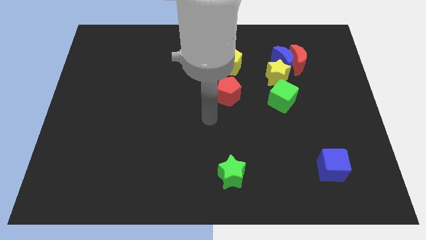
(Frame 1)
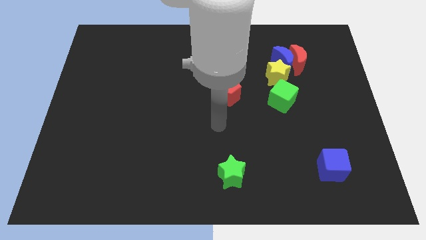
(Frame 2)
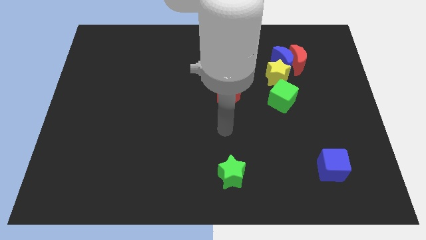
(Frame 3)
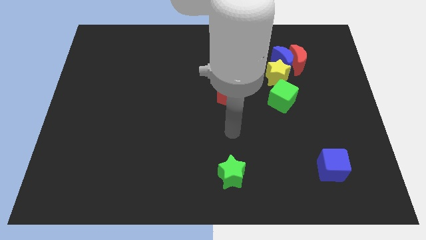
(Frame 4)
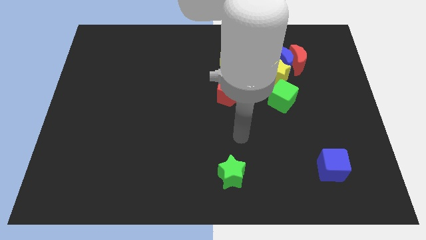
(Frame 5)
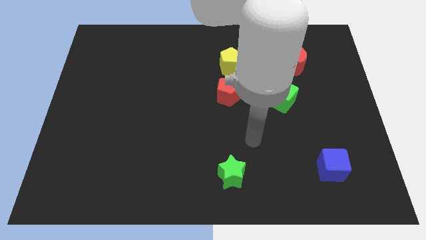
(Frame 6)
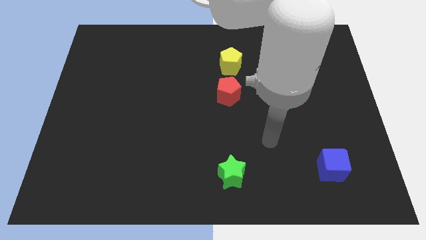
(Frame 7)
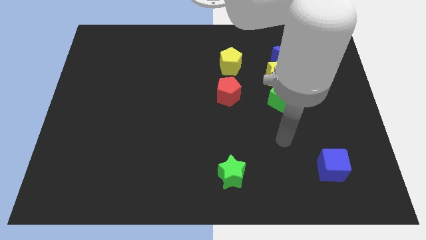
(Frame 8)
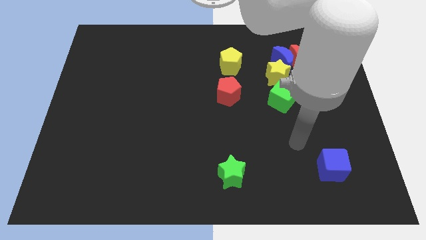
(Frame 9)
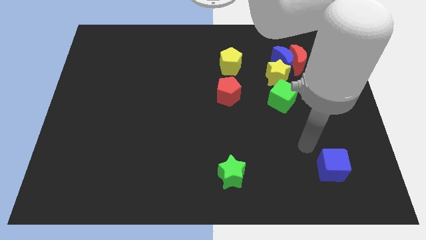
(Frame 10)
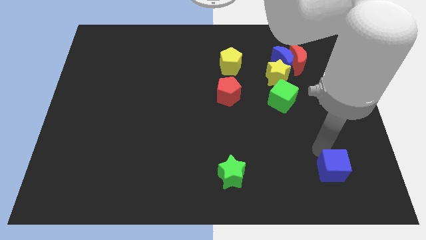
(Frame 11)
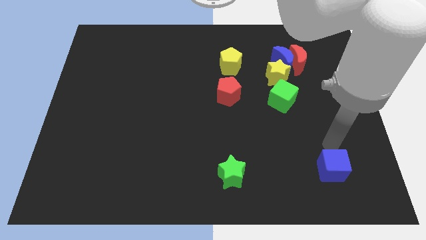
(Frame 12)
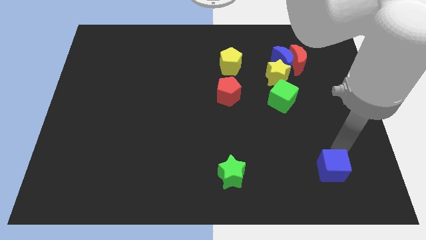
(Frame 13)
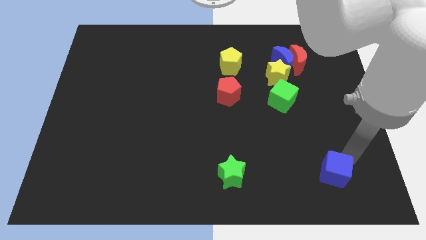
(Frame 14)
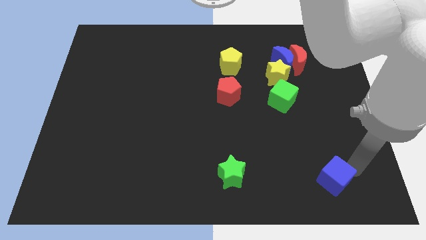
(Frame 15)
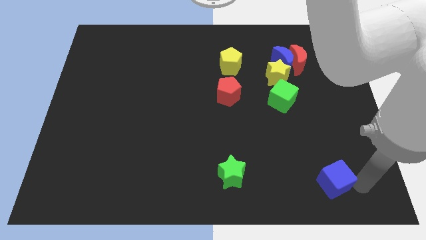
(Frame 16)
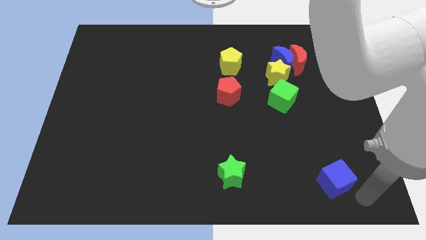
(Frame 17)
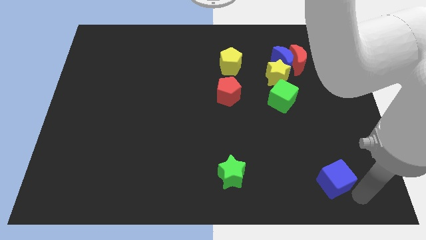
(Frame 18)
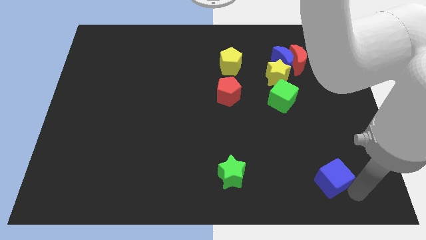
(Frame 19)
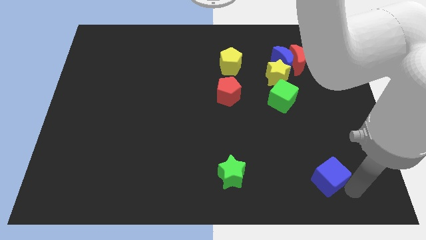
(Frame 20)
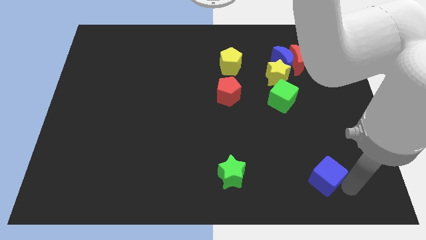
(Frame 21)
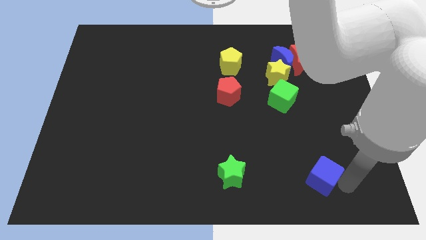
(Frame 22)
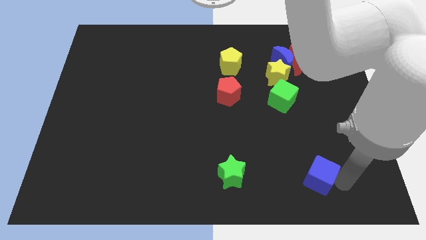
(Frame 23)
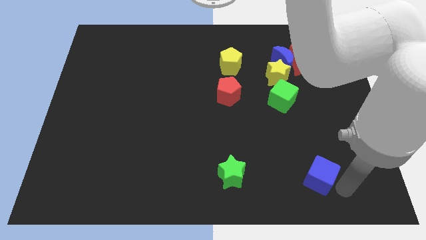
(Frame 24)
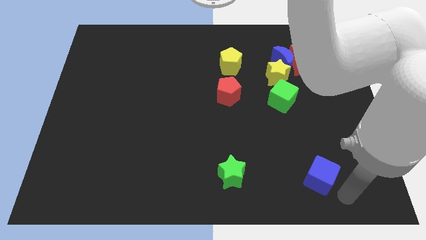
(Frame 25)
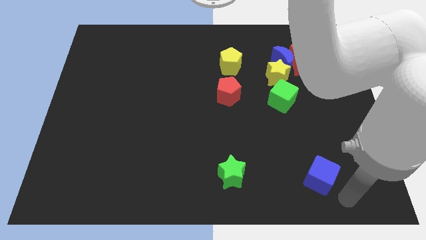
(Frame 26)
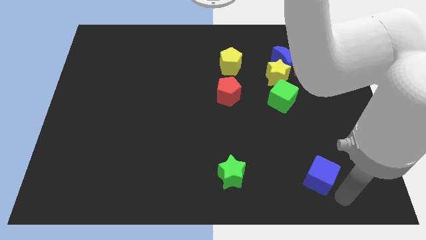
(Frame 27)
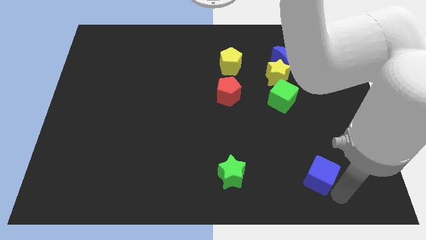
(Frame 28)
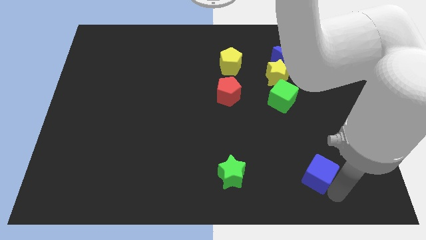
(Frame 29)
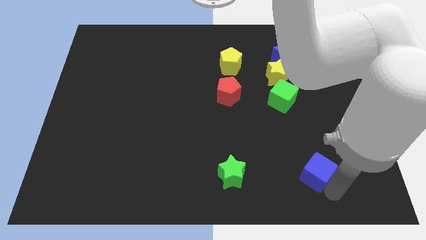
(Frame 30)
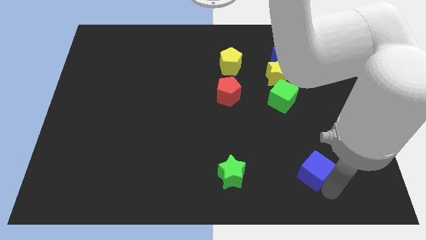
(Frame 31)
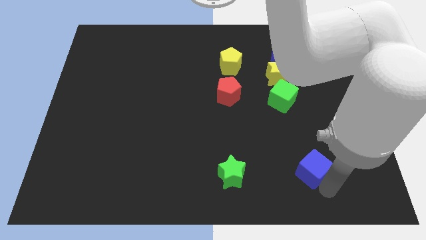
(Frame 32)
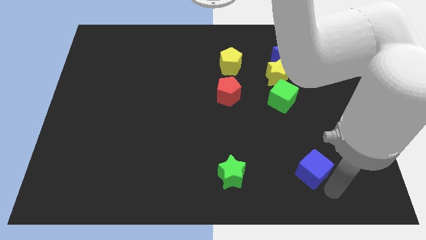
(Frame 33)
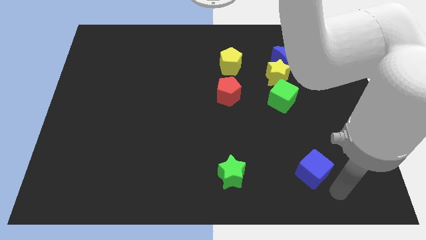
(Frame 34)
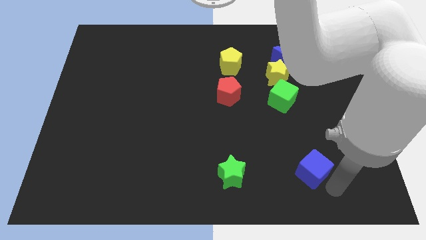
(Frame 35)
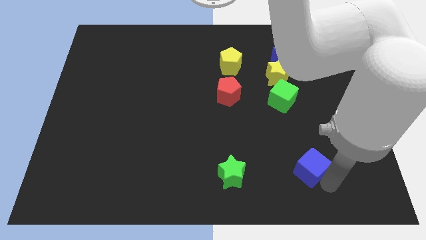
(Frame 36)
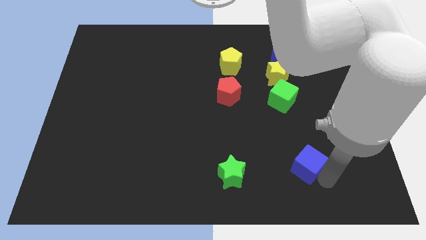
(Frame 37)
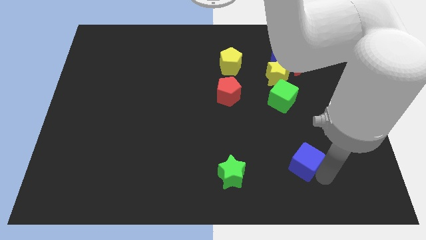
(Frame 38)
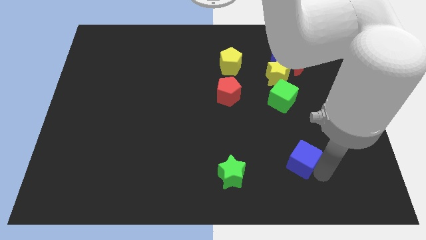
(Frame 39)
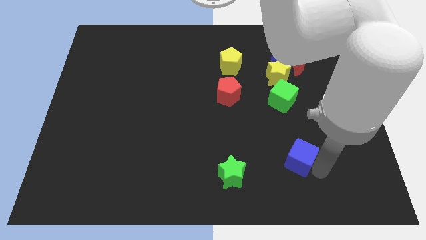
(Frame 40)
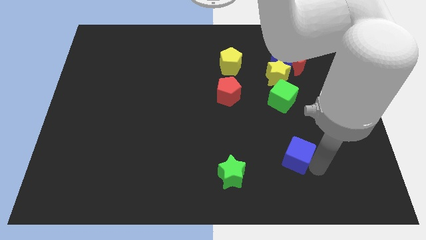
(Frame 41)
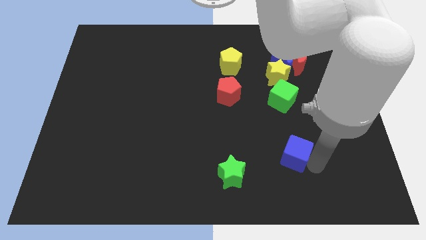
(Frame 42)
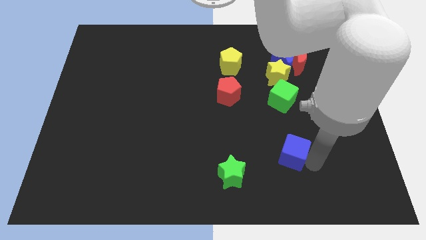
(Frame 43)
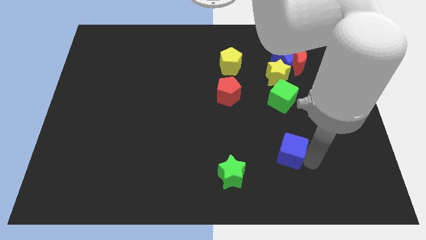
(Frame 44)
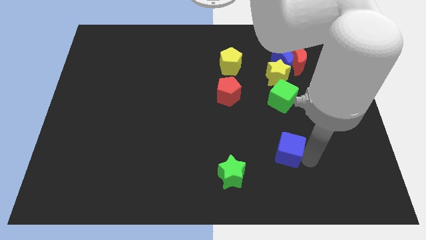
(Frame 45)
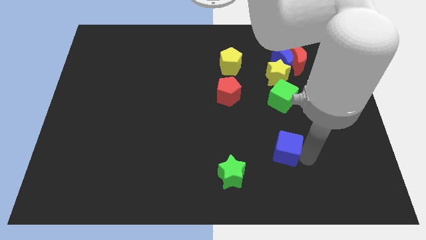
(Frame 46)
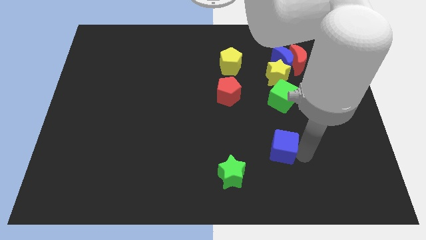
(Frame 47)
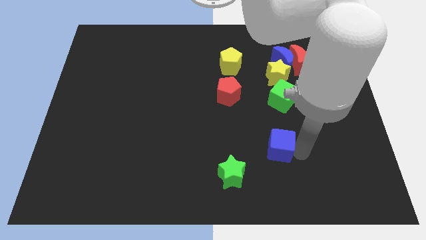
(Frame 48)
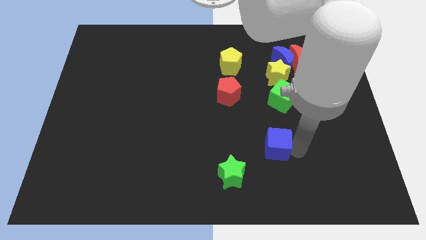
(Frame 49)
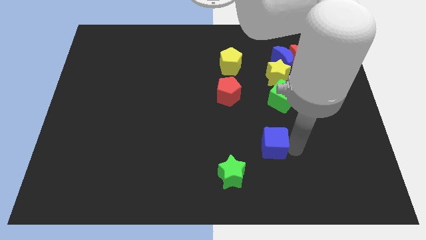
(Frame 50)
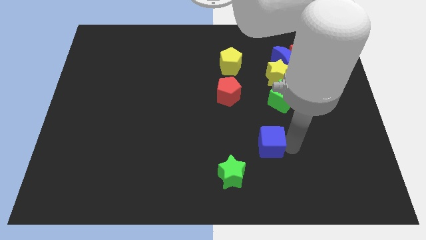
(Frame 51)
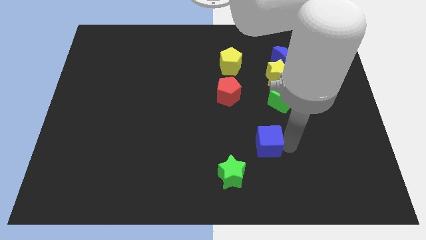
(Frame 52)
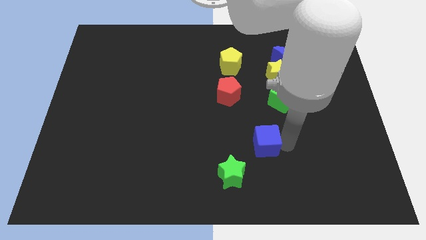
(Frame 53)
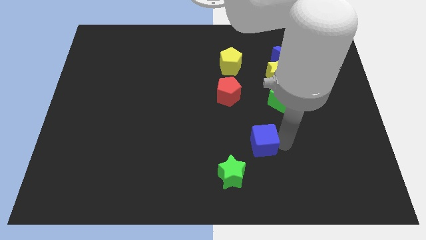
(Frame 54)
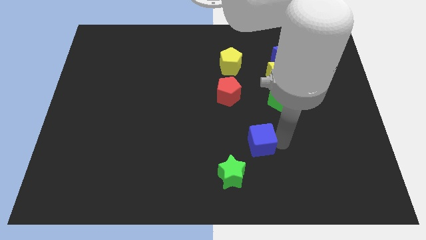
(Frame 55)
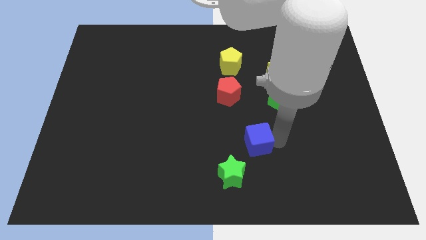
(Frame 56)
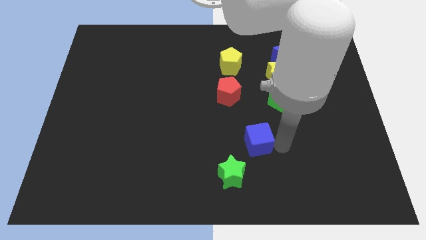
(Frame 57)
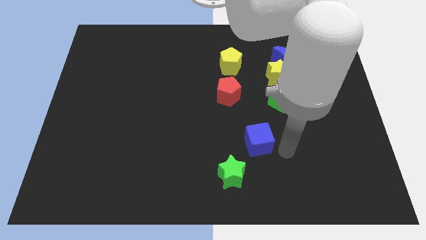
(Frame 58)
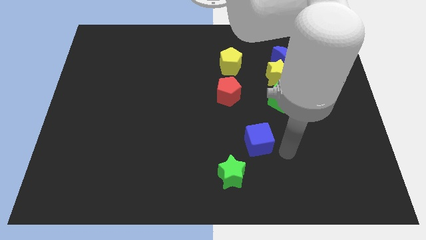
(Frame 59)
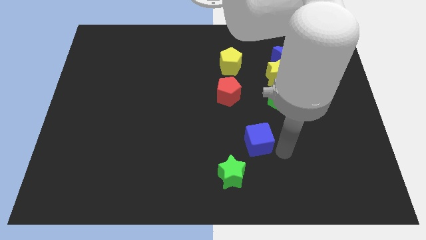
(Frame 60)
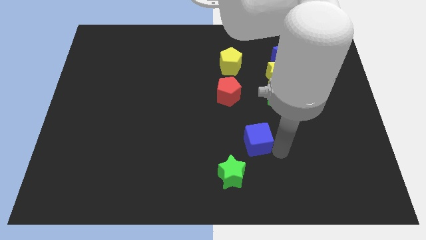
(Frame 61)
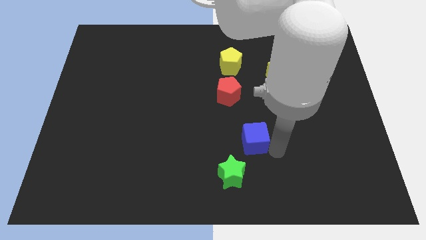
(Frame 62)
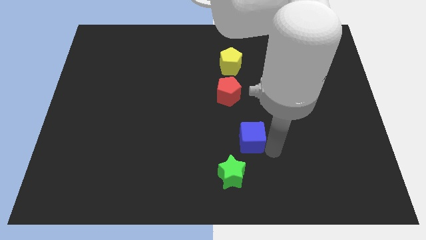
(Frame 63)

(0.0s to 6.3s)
slide the blue cube to the top of the green star

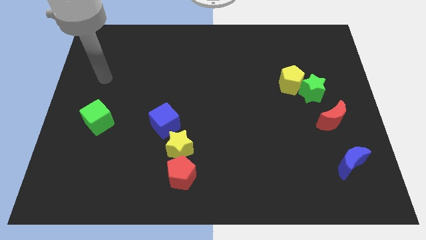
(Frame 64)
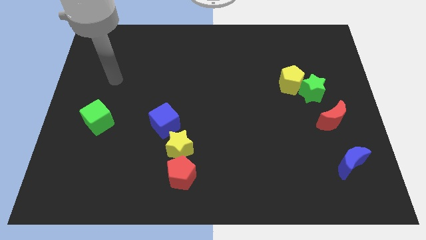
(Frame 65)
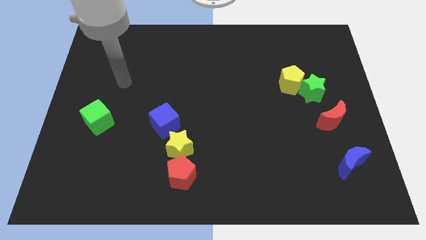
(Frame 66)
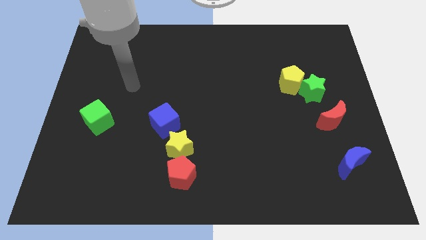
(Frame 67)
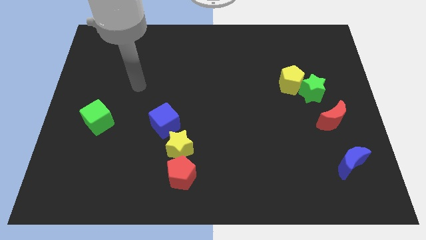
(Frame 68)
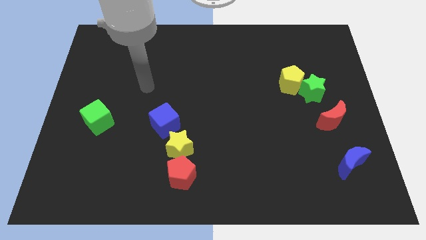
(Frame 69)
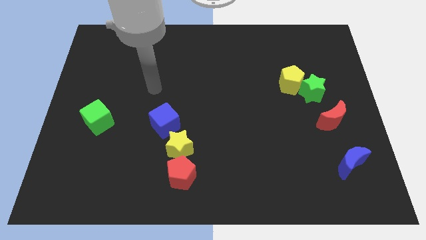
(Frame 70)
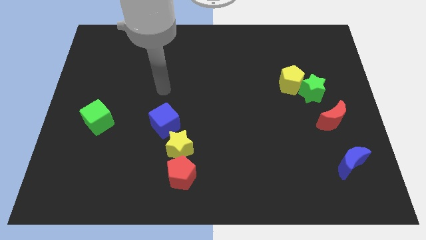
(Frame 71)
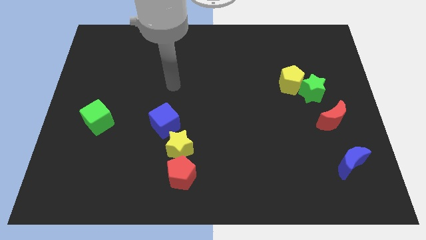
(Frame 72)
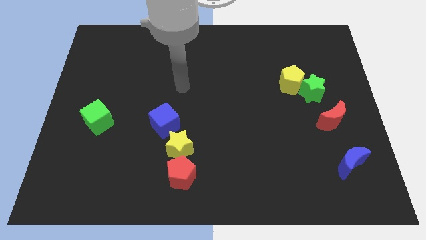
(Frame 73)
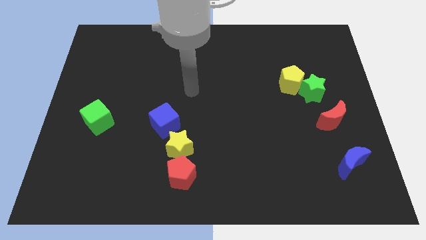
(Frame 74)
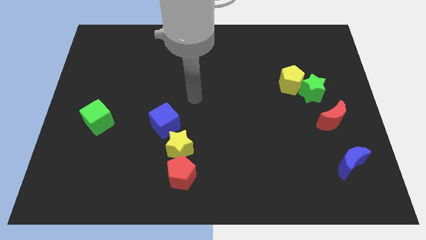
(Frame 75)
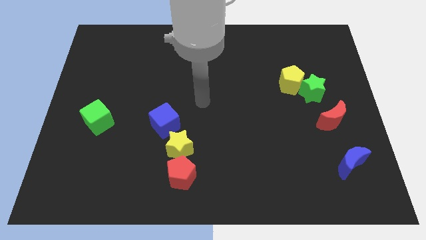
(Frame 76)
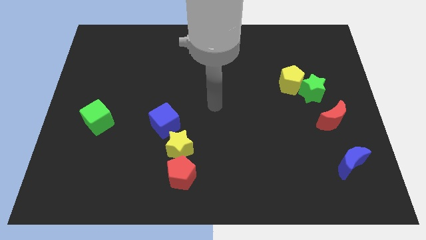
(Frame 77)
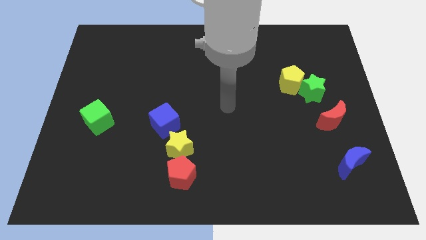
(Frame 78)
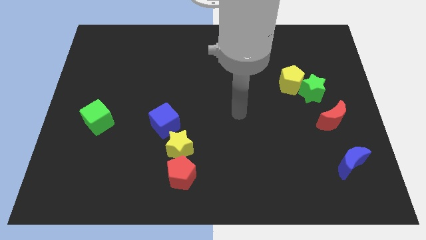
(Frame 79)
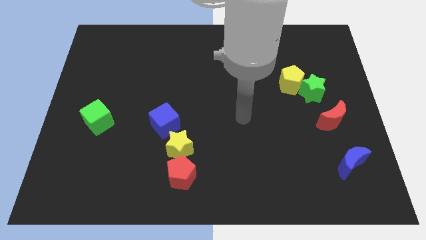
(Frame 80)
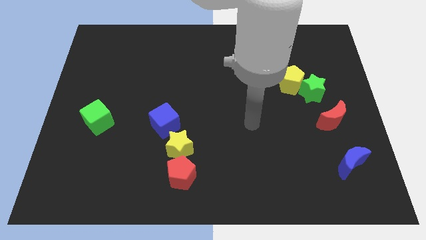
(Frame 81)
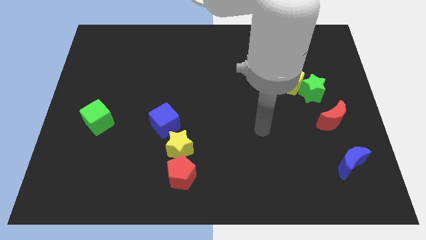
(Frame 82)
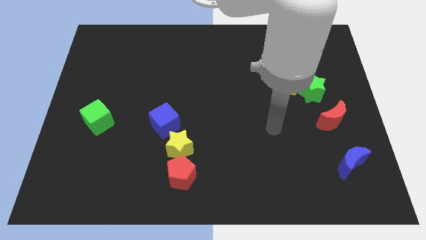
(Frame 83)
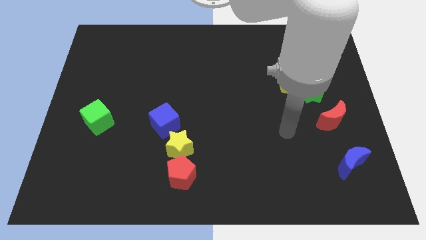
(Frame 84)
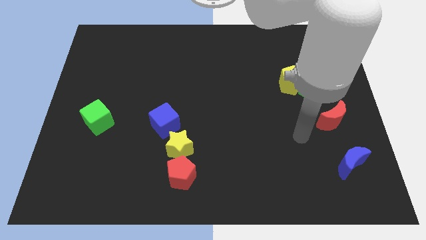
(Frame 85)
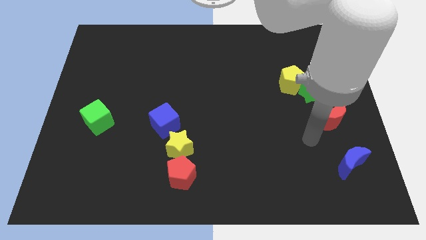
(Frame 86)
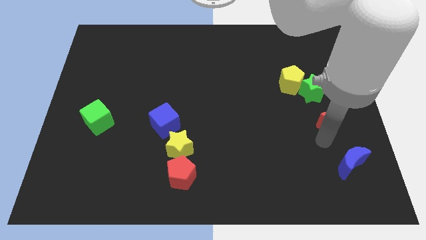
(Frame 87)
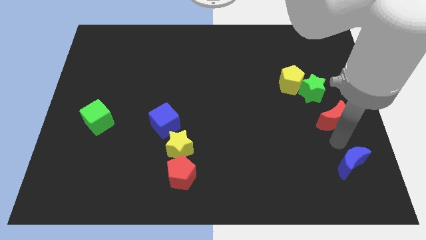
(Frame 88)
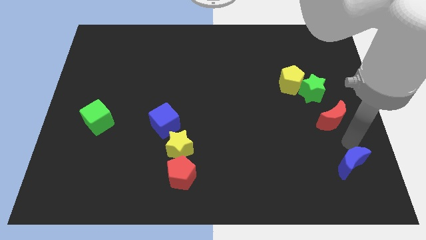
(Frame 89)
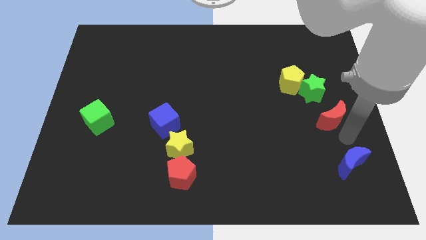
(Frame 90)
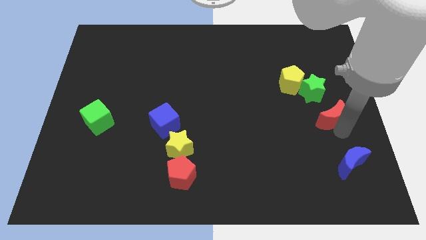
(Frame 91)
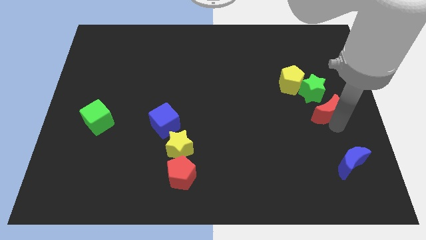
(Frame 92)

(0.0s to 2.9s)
slide the red moon to the bottom right of the yellow pentagon
